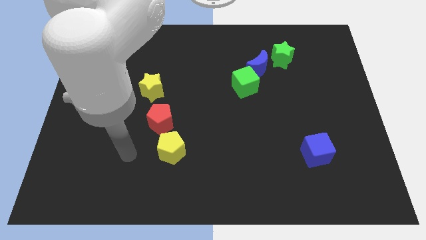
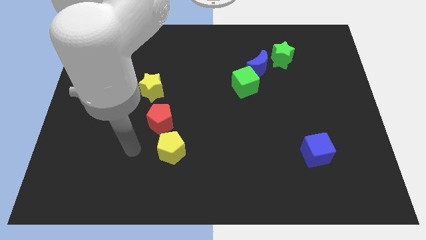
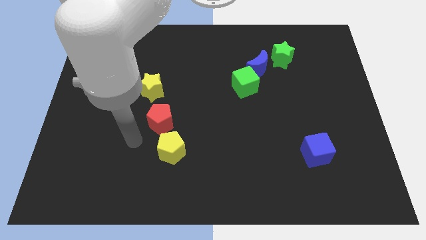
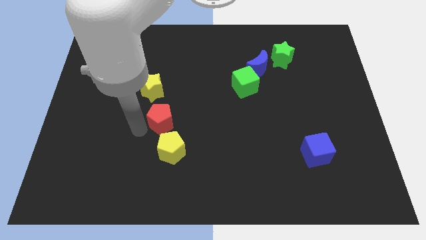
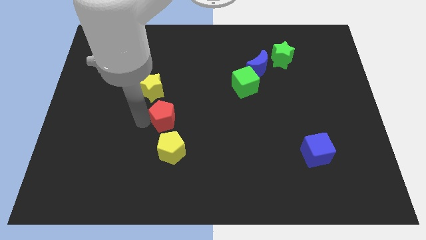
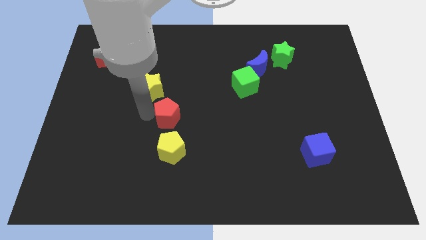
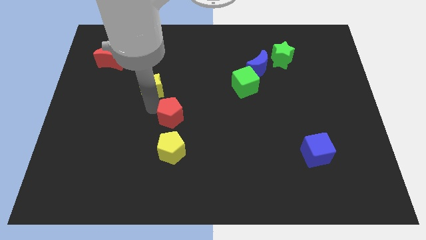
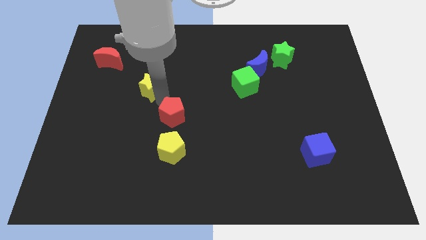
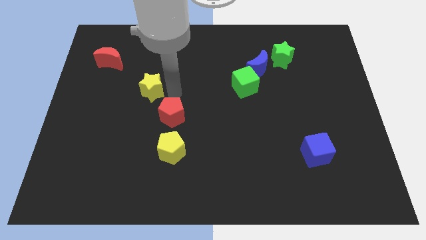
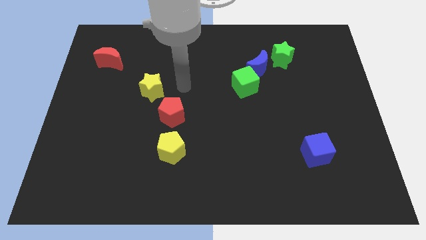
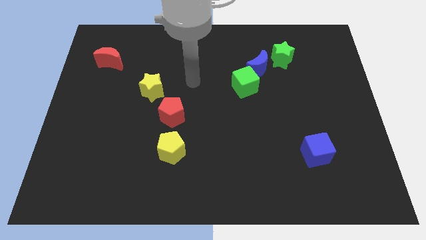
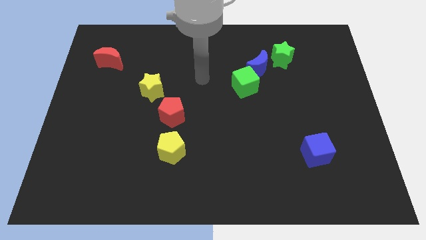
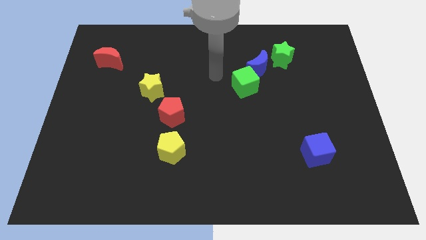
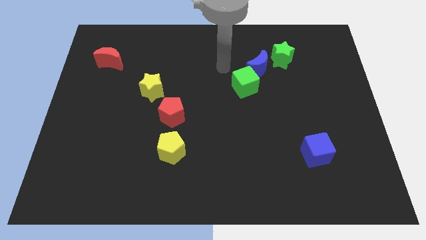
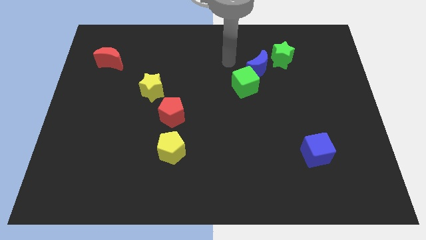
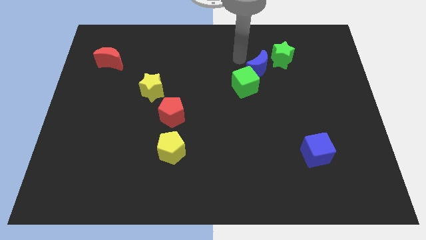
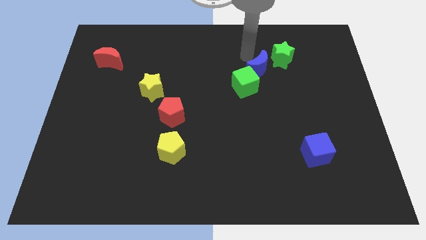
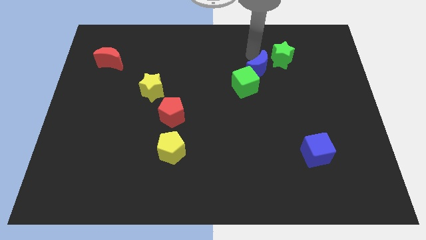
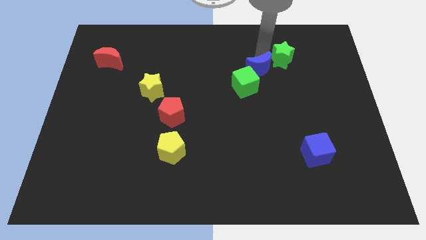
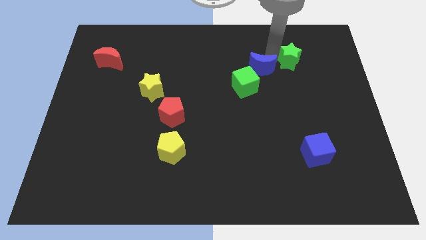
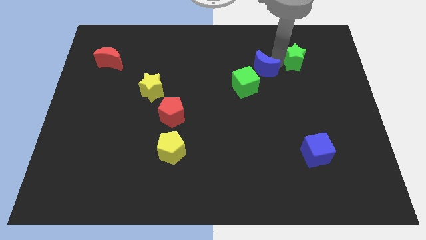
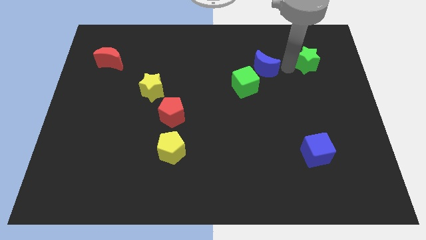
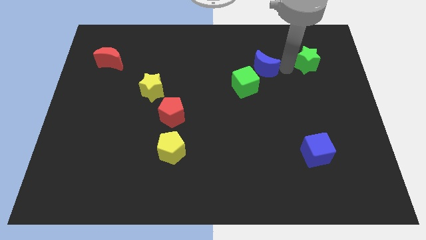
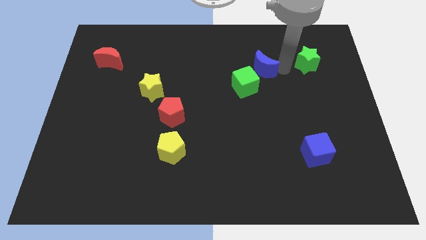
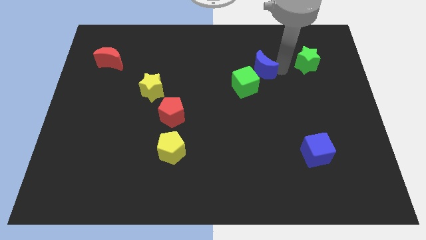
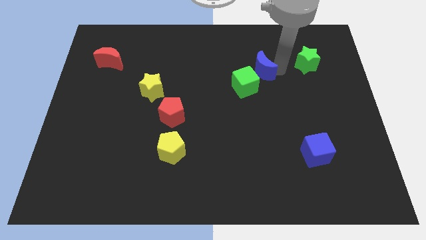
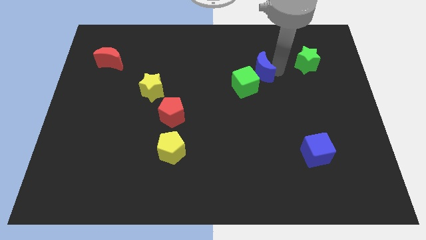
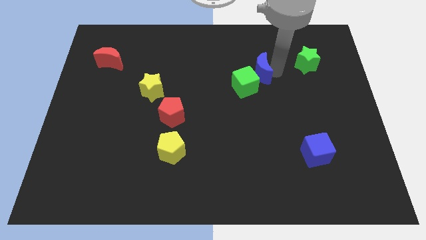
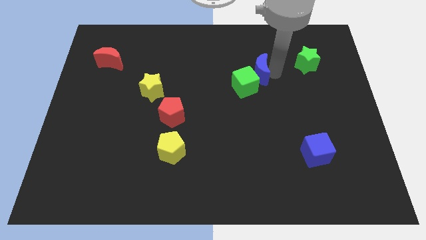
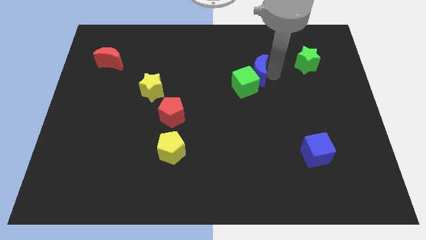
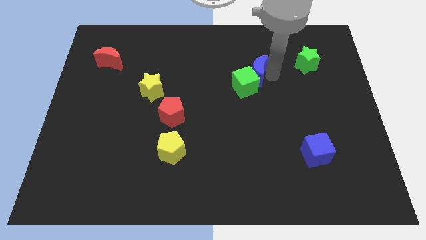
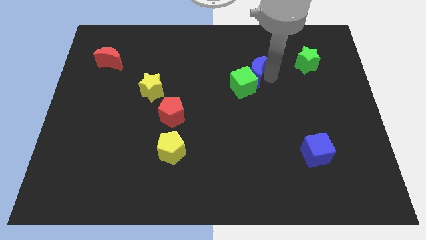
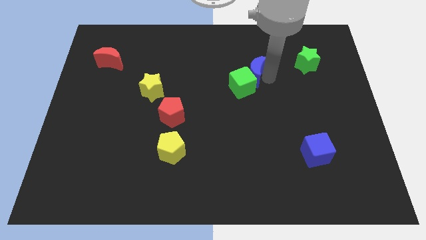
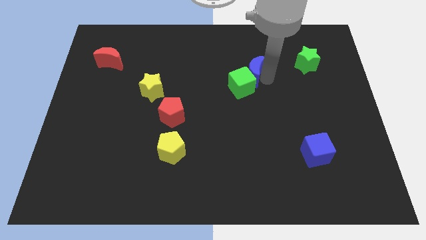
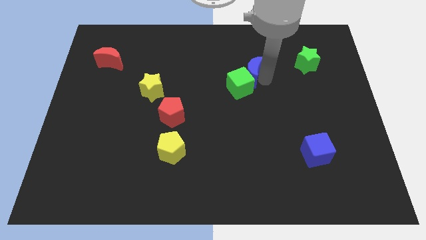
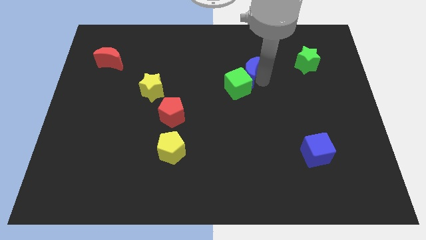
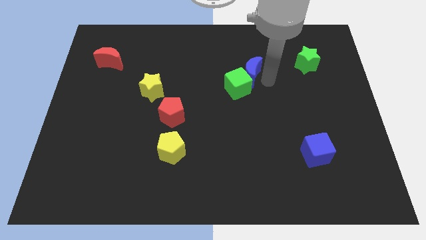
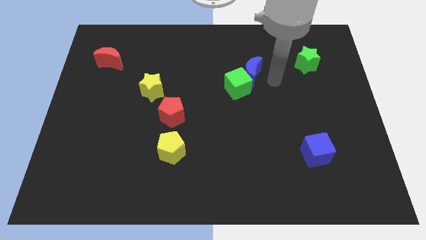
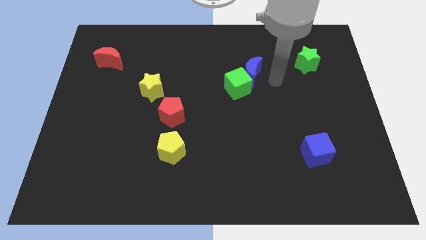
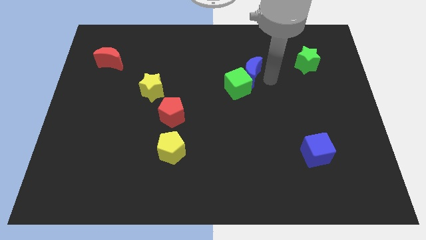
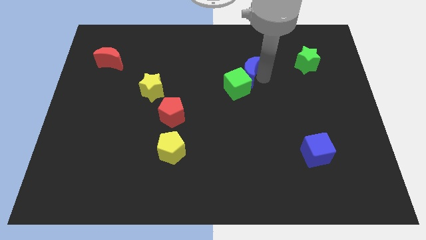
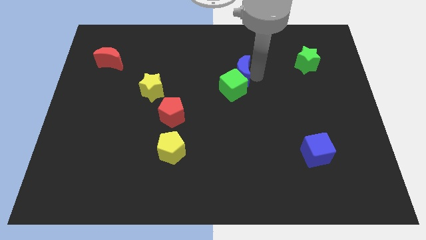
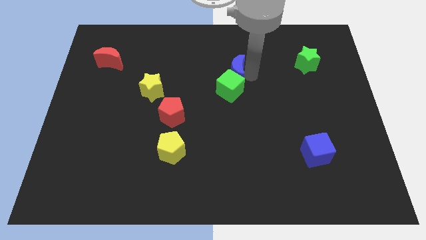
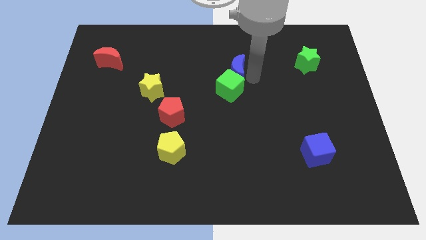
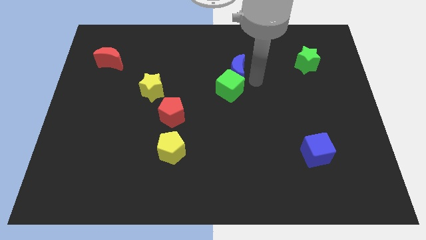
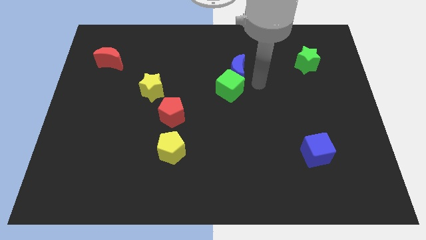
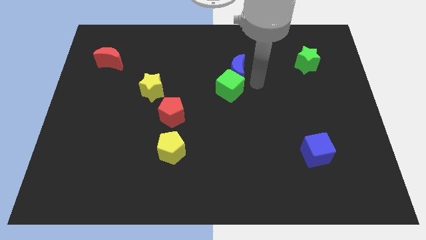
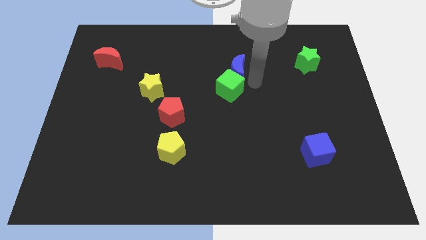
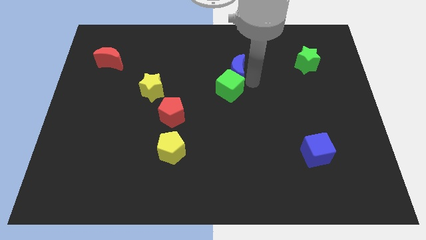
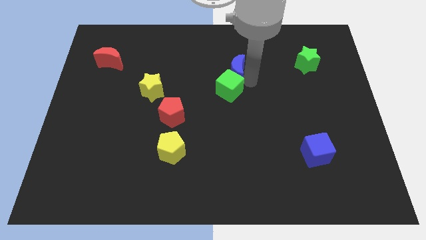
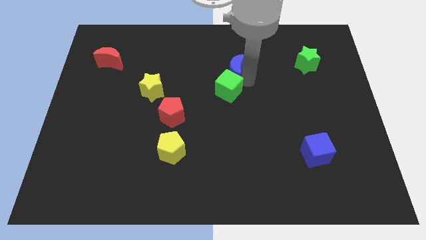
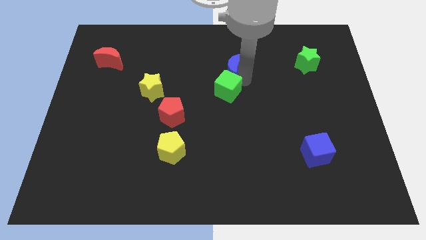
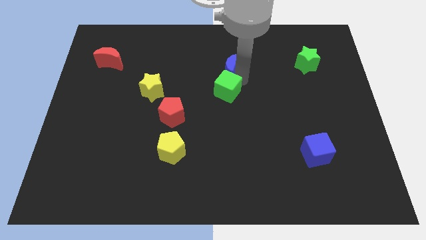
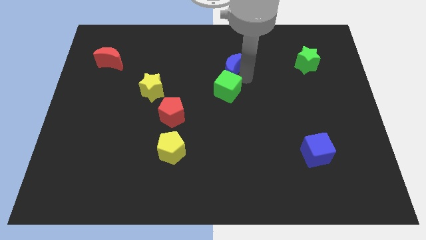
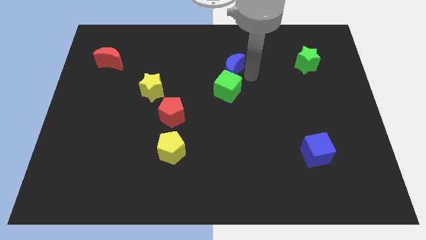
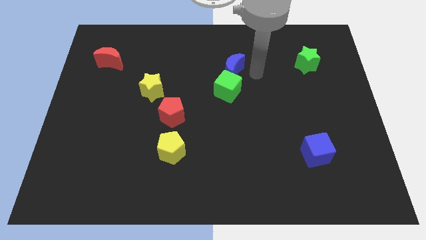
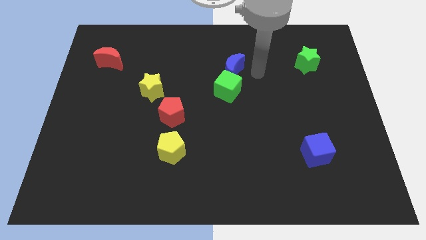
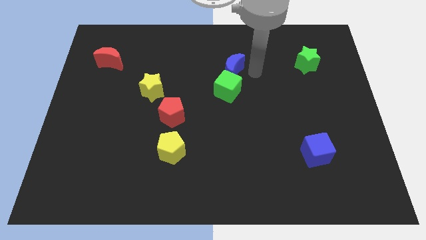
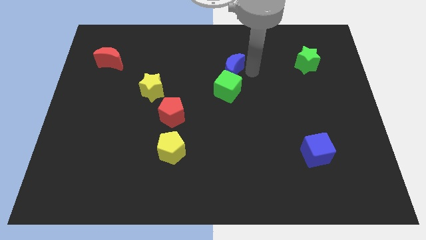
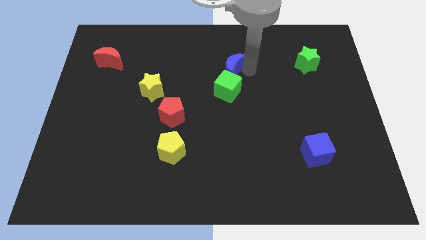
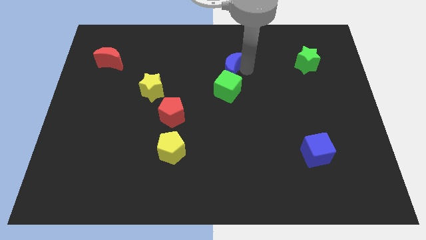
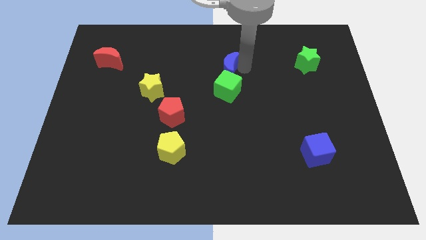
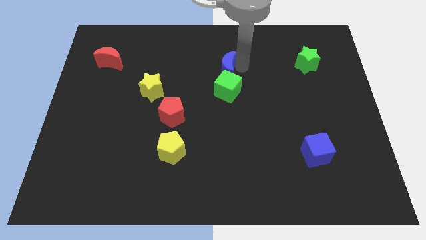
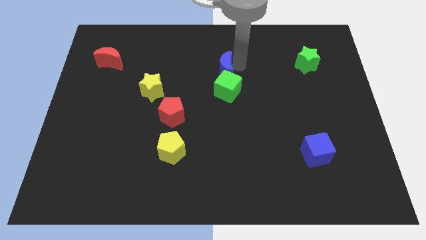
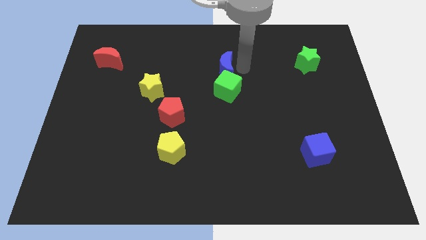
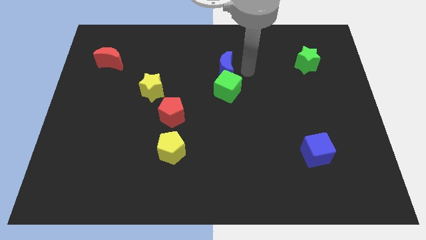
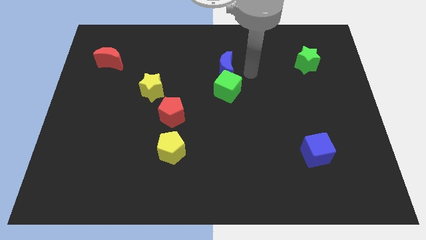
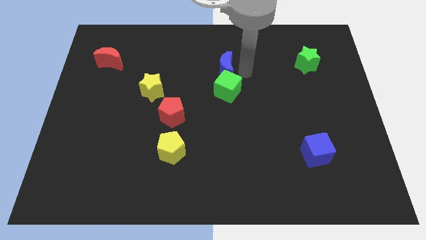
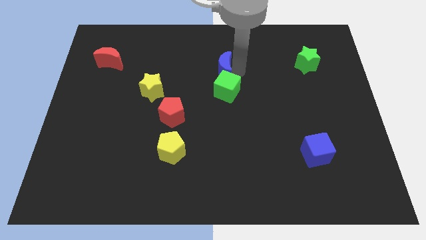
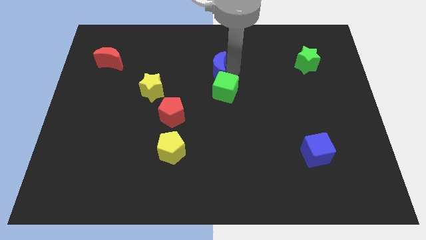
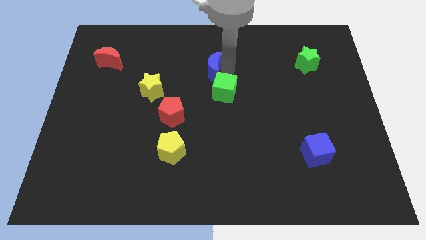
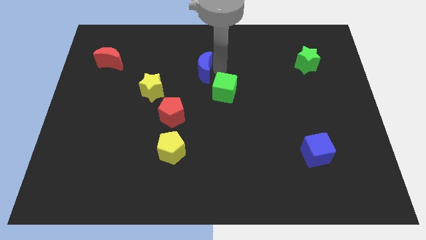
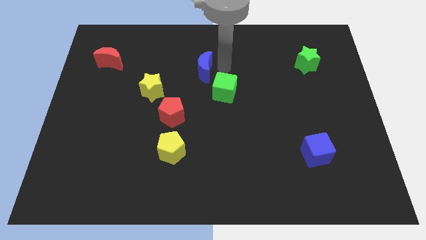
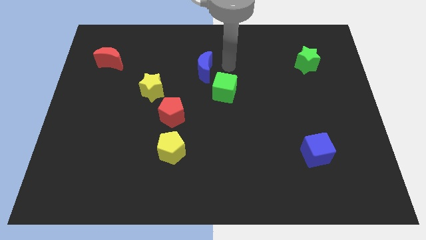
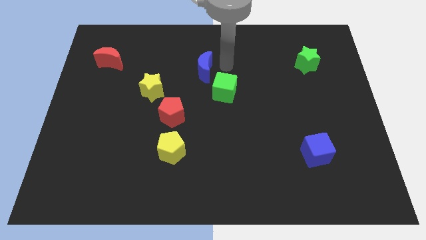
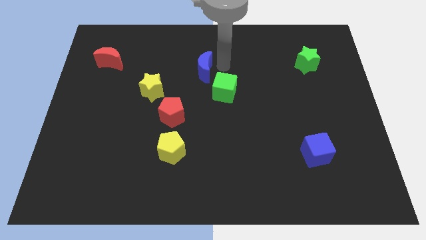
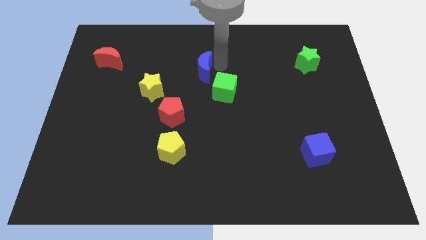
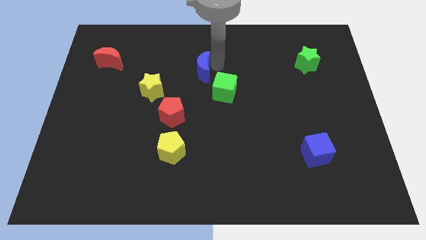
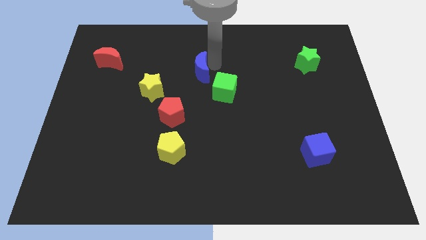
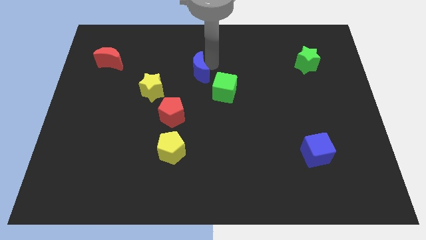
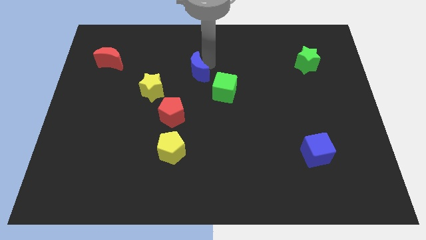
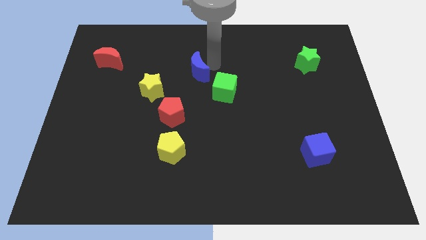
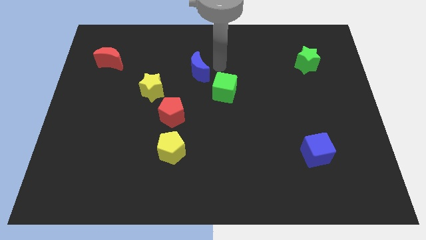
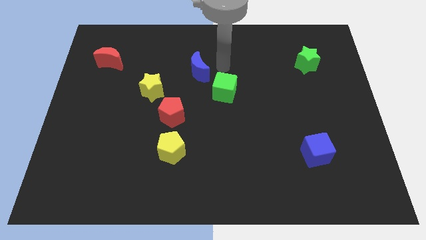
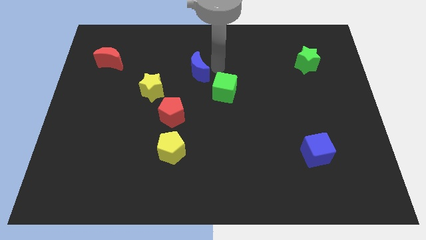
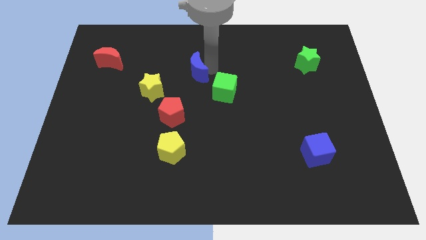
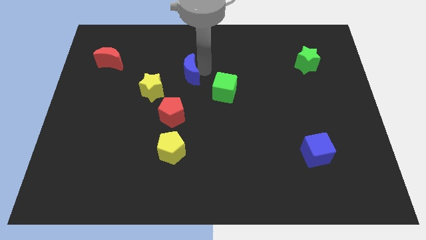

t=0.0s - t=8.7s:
put the blue moon diagonally up and to the right of the yellow star
